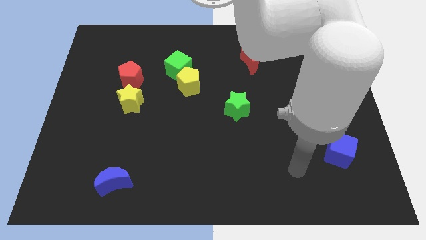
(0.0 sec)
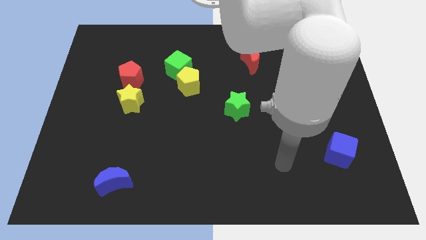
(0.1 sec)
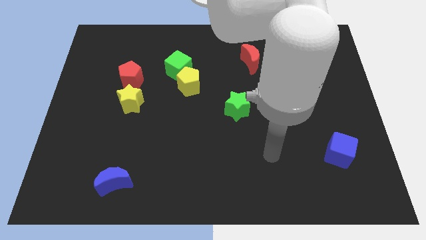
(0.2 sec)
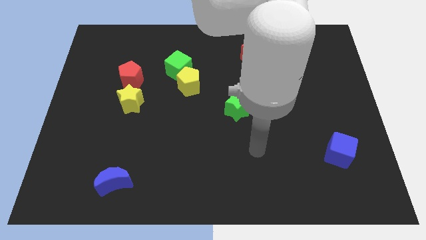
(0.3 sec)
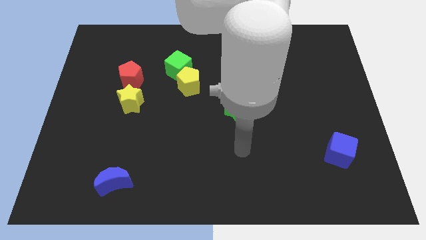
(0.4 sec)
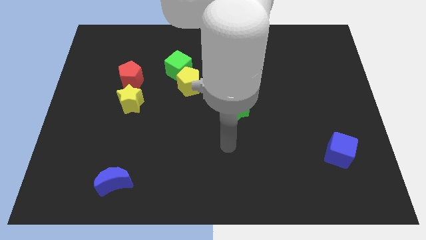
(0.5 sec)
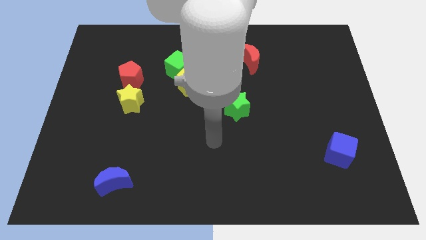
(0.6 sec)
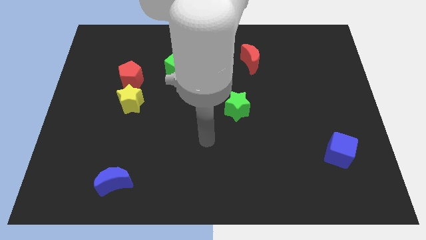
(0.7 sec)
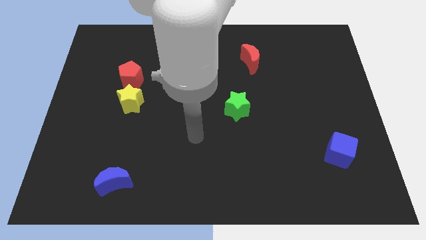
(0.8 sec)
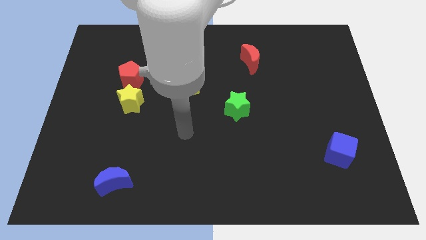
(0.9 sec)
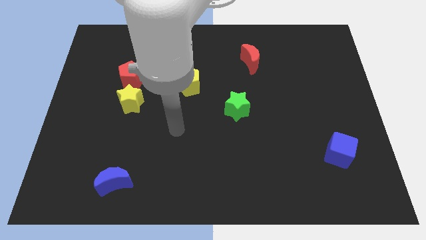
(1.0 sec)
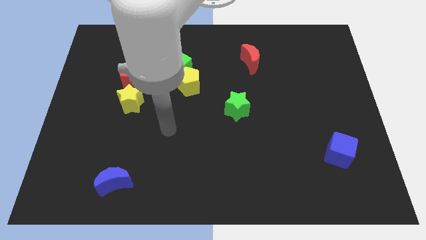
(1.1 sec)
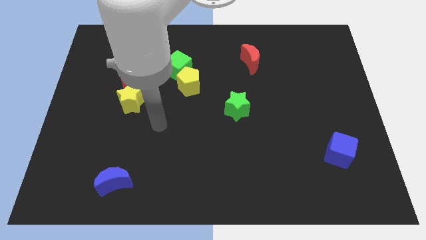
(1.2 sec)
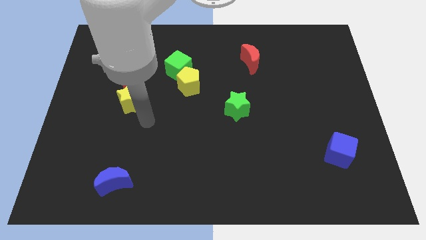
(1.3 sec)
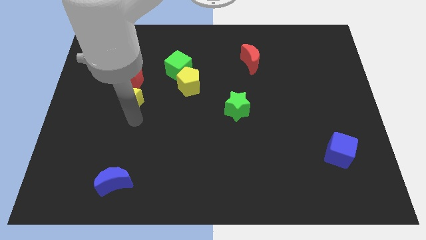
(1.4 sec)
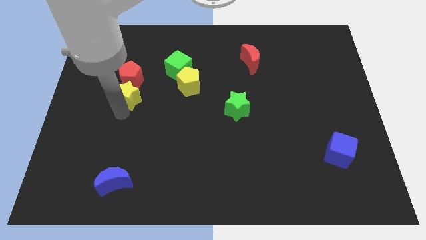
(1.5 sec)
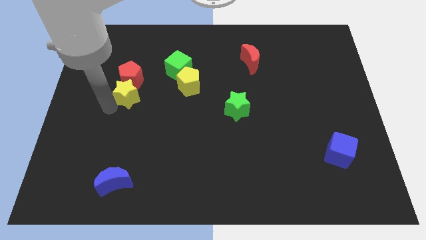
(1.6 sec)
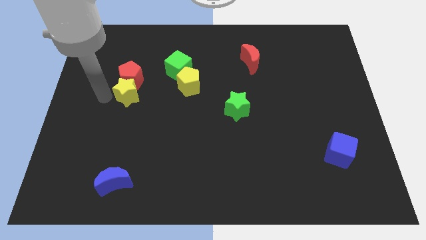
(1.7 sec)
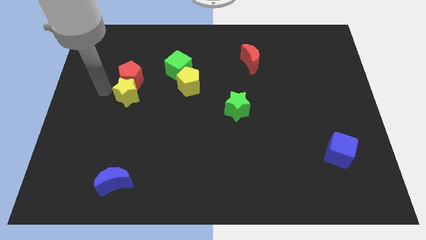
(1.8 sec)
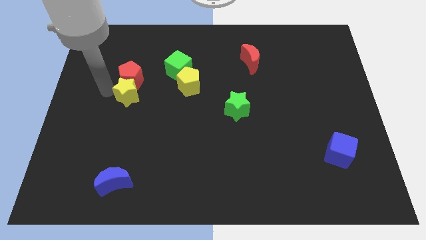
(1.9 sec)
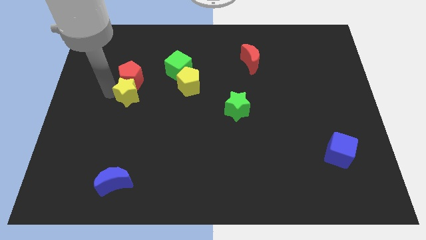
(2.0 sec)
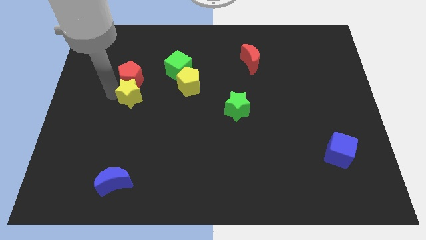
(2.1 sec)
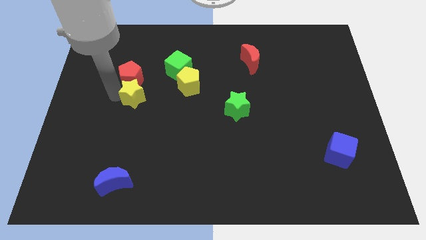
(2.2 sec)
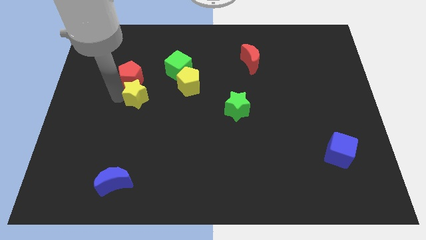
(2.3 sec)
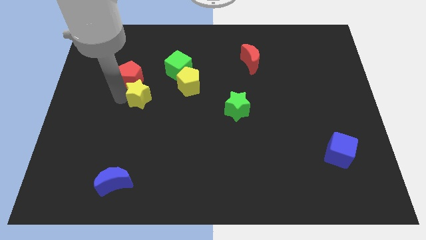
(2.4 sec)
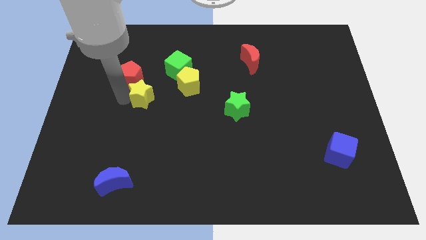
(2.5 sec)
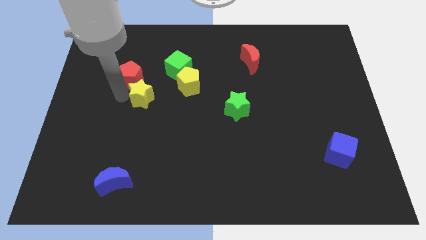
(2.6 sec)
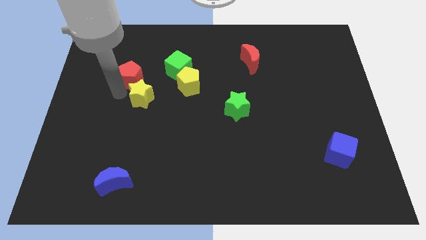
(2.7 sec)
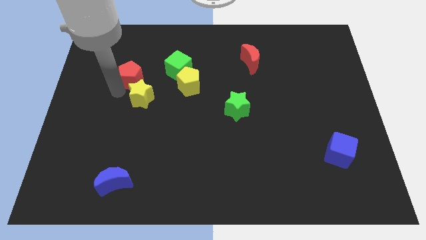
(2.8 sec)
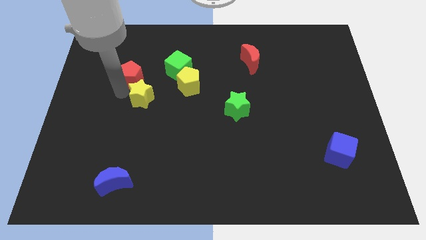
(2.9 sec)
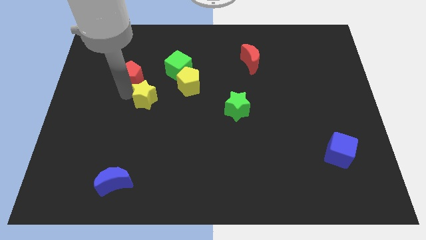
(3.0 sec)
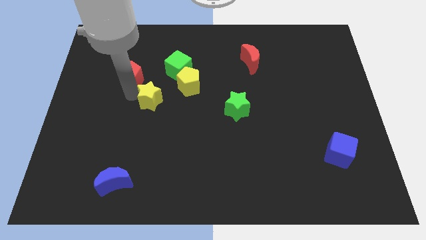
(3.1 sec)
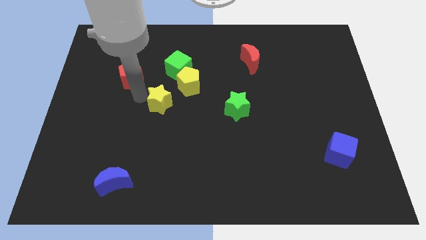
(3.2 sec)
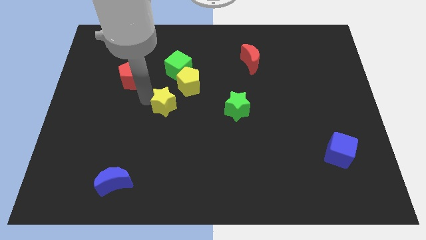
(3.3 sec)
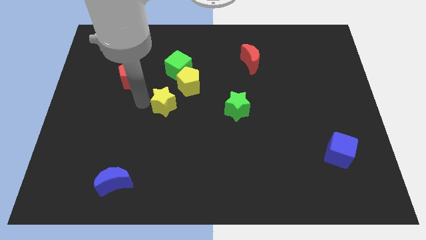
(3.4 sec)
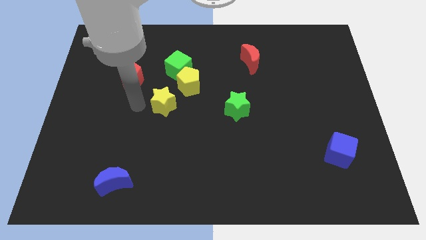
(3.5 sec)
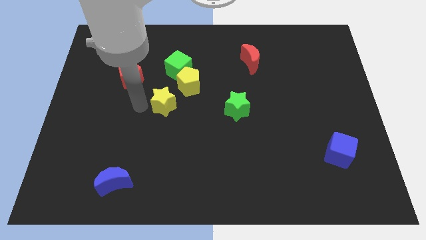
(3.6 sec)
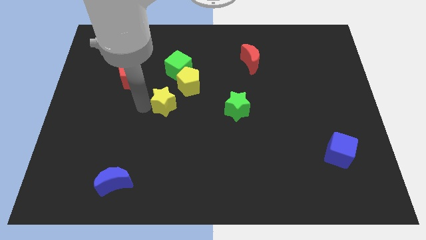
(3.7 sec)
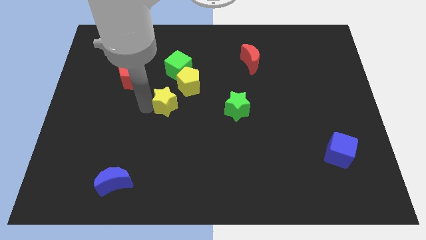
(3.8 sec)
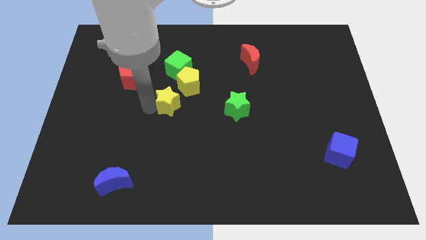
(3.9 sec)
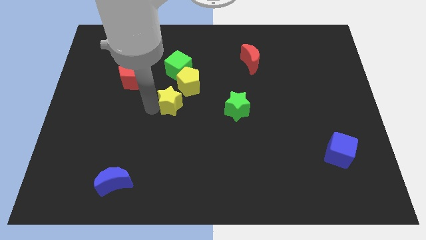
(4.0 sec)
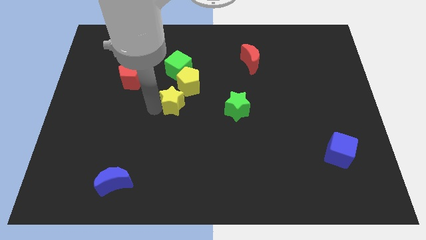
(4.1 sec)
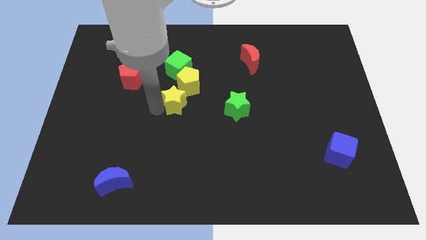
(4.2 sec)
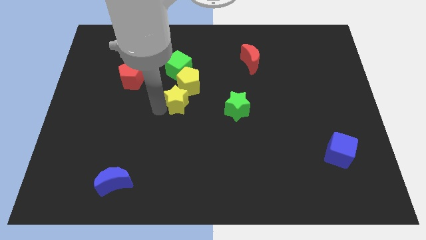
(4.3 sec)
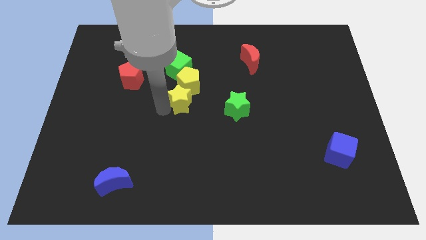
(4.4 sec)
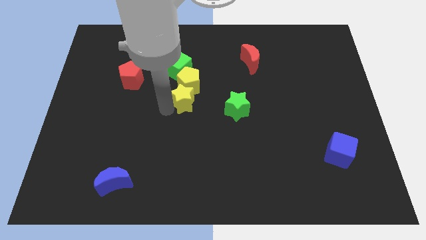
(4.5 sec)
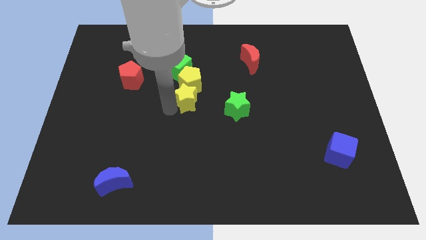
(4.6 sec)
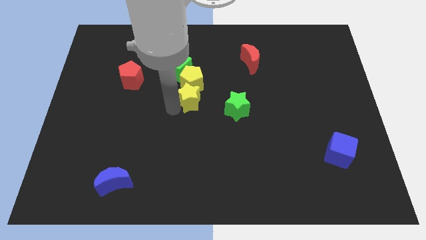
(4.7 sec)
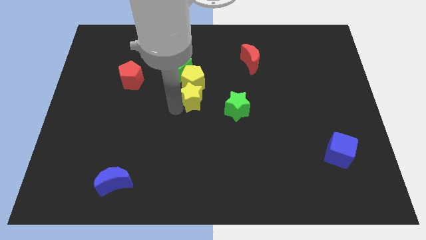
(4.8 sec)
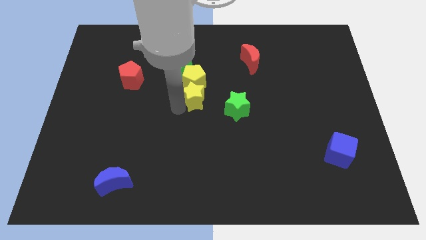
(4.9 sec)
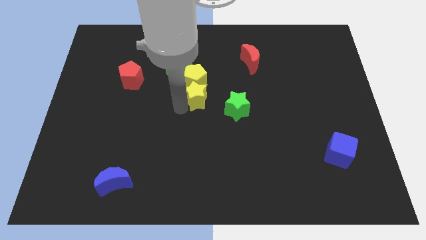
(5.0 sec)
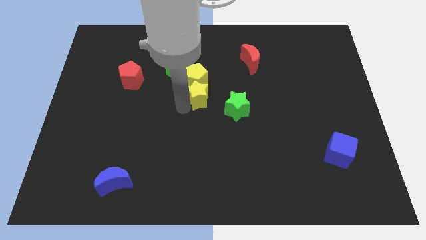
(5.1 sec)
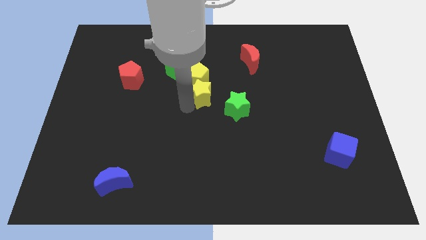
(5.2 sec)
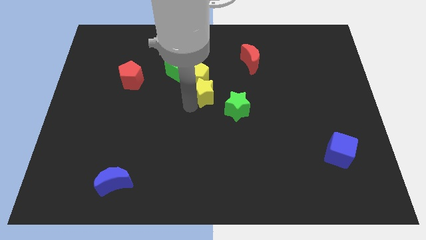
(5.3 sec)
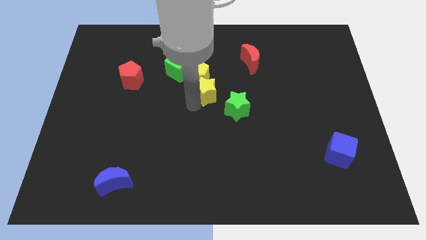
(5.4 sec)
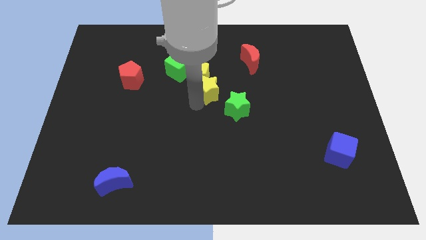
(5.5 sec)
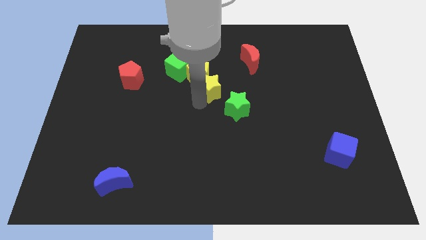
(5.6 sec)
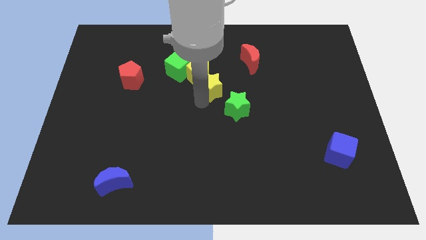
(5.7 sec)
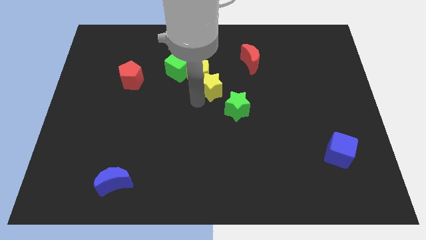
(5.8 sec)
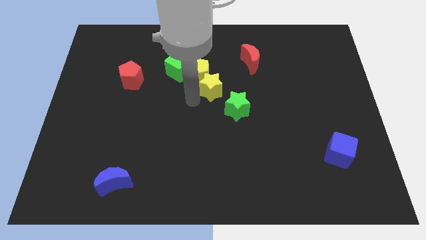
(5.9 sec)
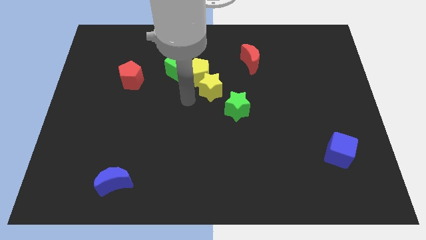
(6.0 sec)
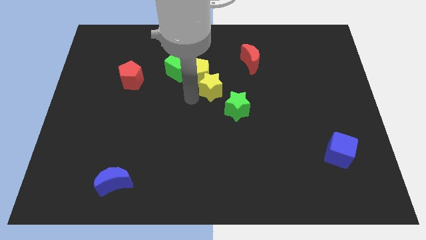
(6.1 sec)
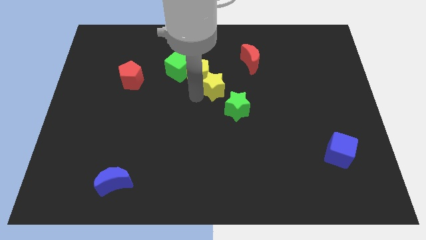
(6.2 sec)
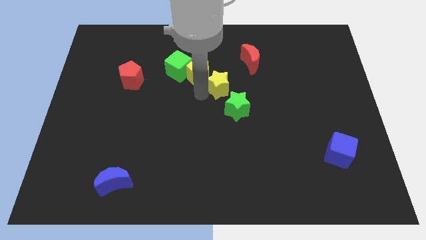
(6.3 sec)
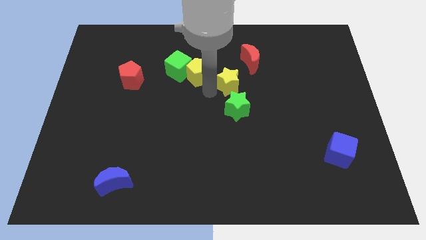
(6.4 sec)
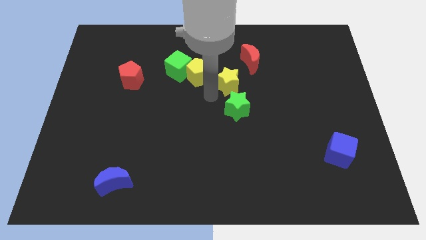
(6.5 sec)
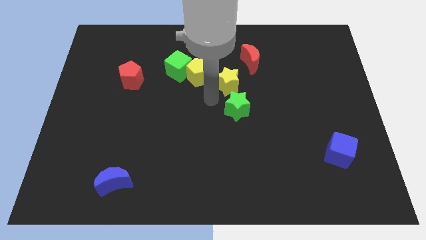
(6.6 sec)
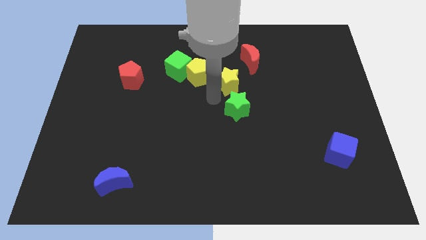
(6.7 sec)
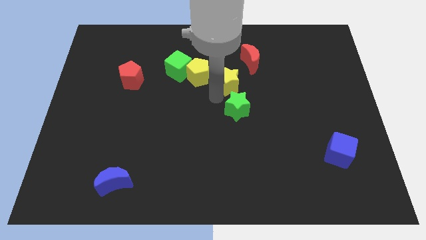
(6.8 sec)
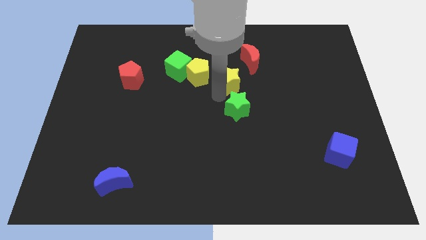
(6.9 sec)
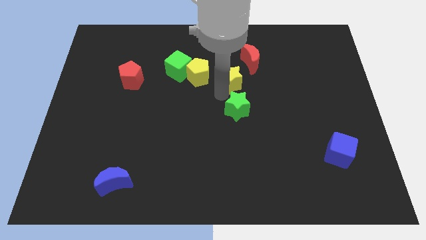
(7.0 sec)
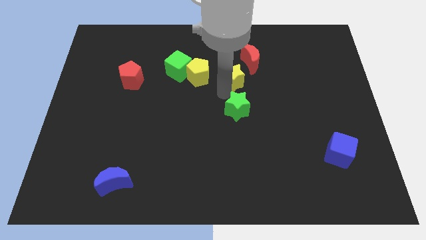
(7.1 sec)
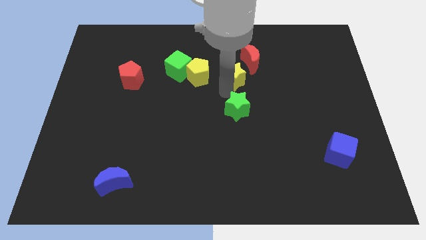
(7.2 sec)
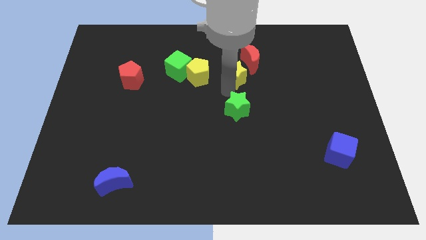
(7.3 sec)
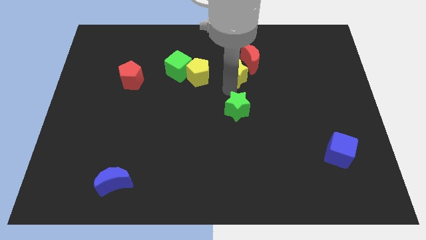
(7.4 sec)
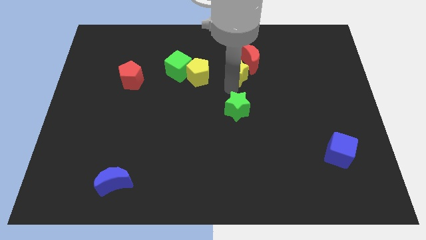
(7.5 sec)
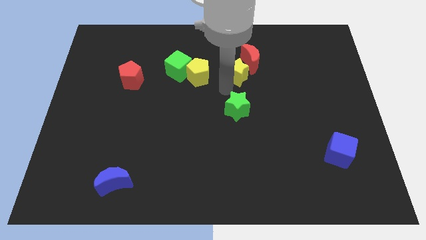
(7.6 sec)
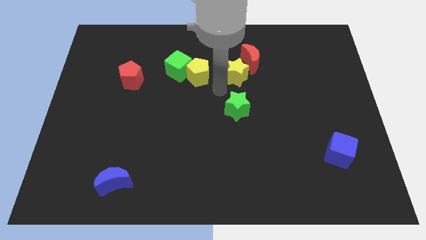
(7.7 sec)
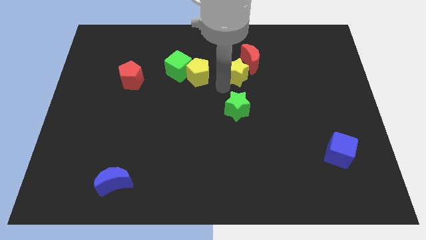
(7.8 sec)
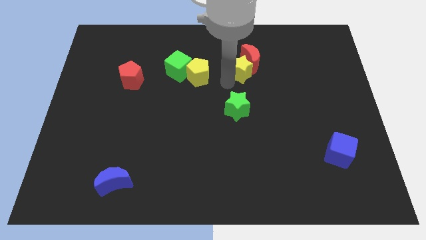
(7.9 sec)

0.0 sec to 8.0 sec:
slide the yellow star to the red moon
